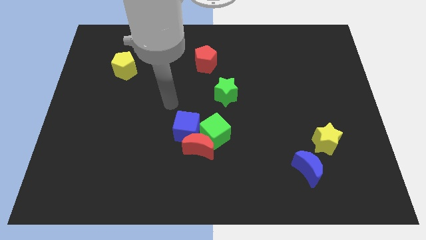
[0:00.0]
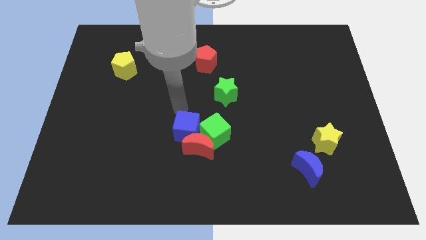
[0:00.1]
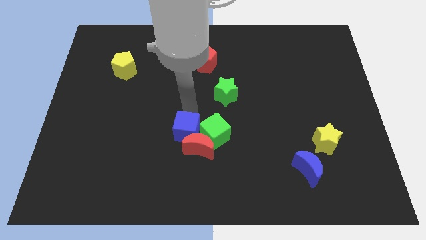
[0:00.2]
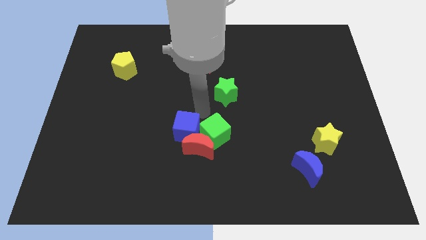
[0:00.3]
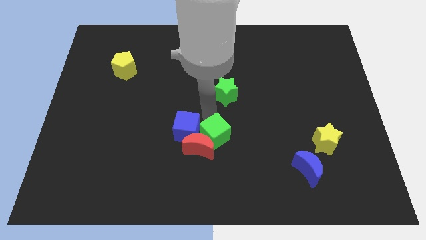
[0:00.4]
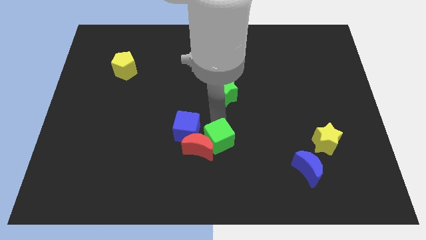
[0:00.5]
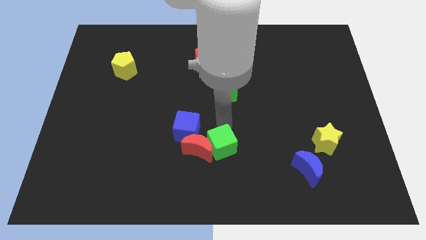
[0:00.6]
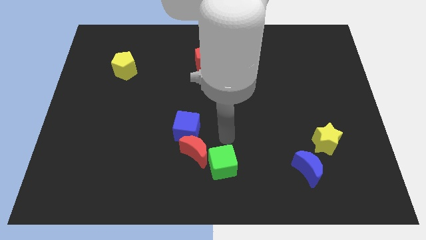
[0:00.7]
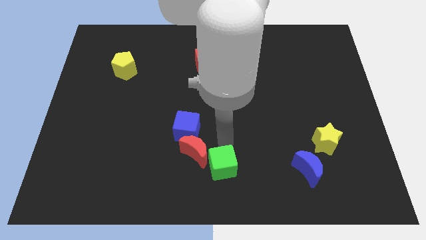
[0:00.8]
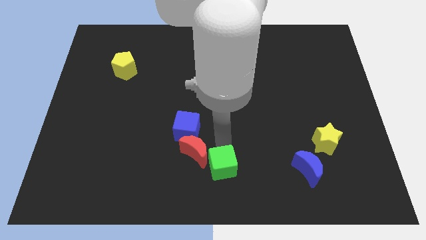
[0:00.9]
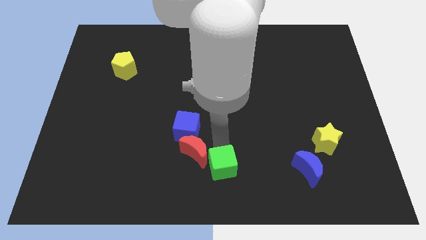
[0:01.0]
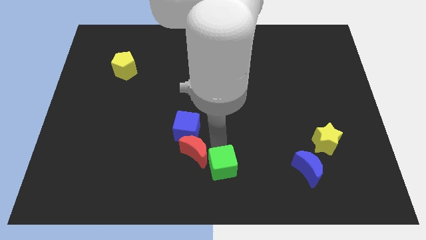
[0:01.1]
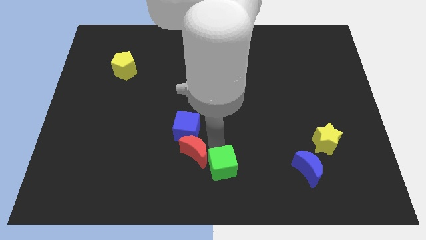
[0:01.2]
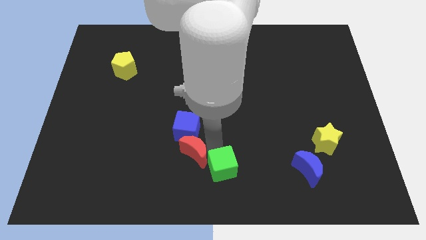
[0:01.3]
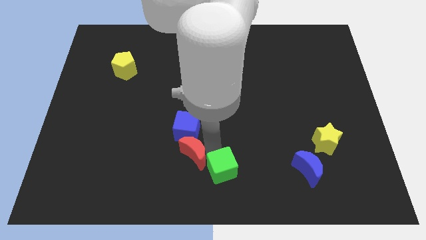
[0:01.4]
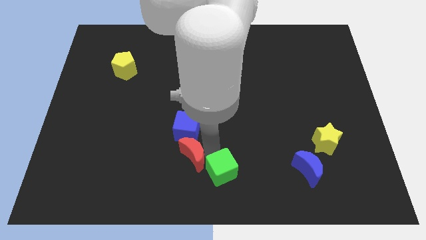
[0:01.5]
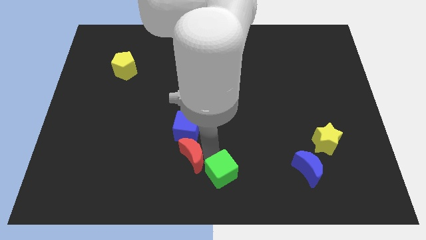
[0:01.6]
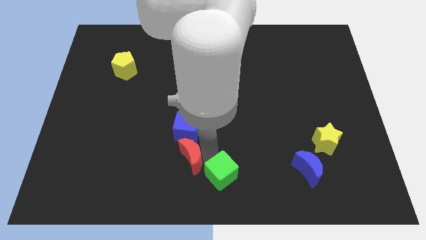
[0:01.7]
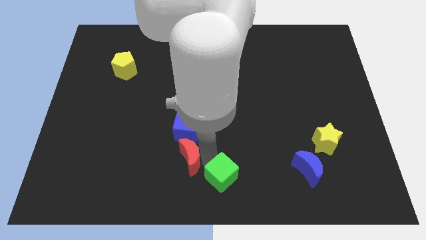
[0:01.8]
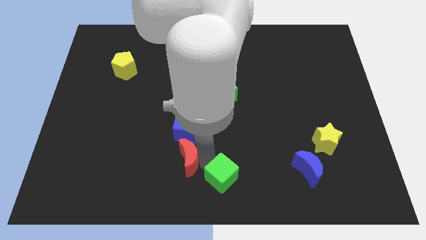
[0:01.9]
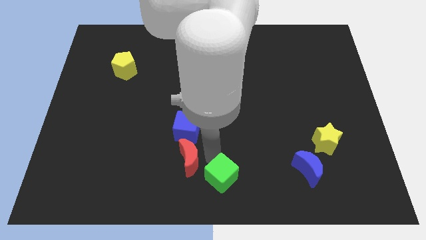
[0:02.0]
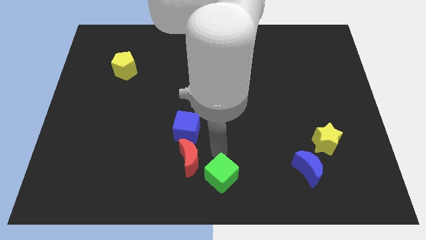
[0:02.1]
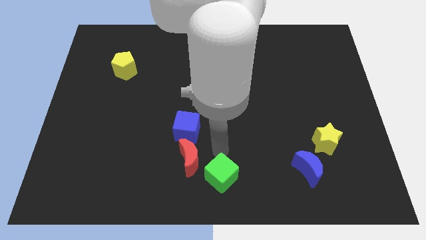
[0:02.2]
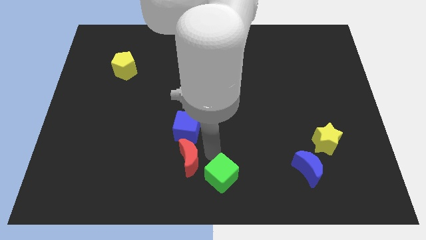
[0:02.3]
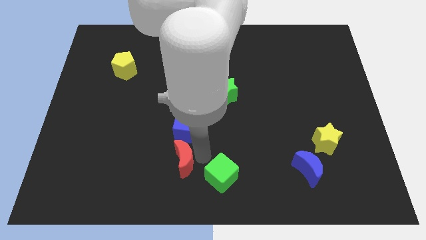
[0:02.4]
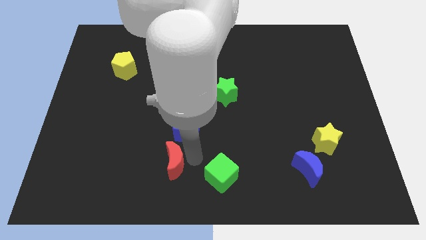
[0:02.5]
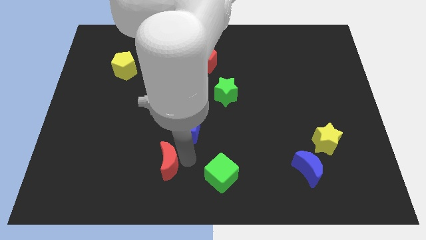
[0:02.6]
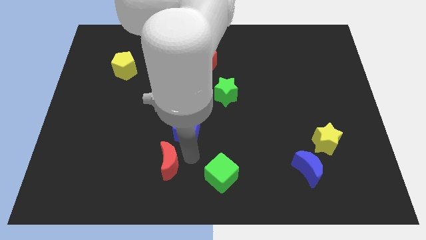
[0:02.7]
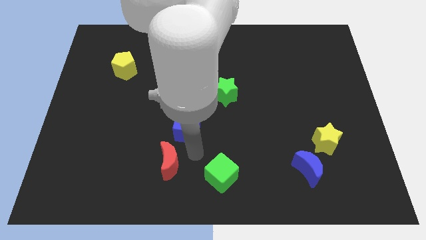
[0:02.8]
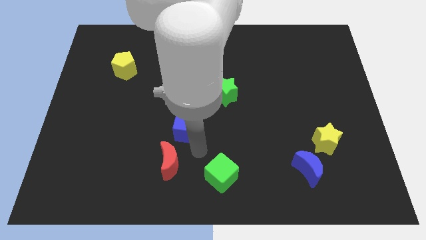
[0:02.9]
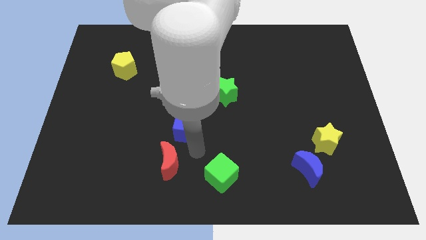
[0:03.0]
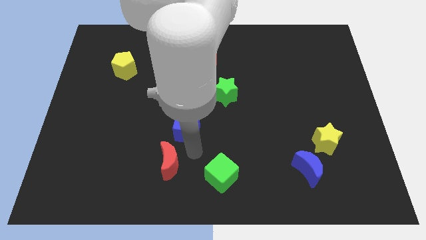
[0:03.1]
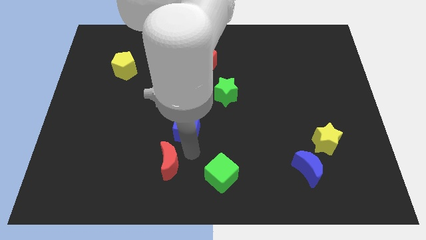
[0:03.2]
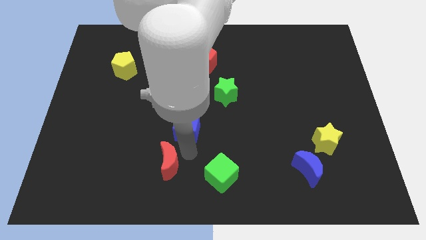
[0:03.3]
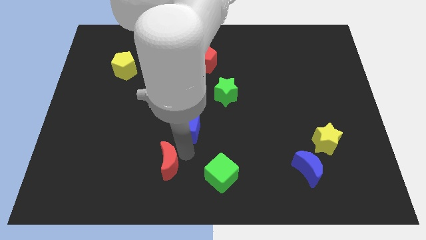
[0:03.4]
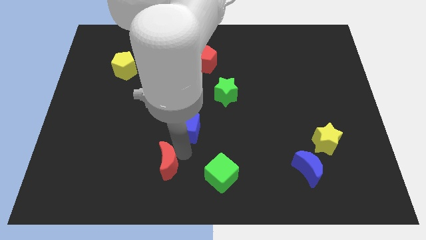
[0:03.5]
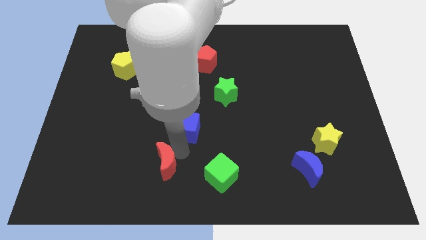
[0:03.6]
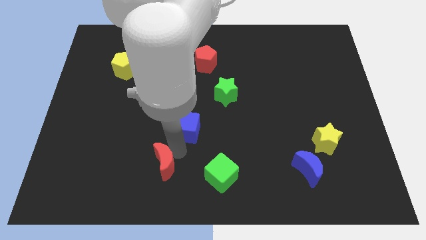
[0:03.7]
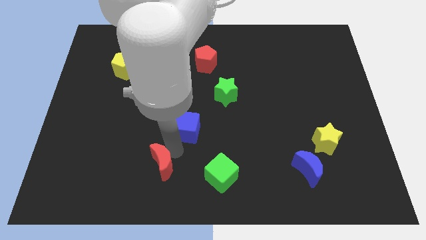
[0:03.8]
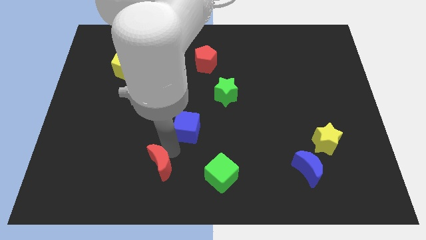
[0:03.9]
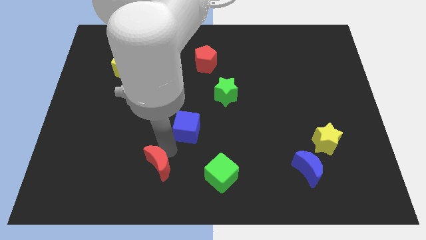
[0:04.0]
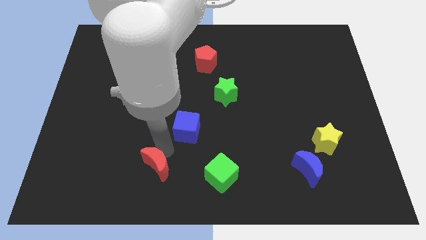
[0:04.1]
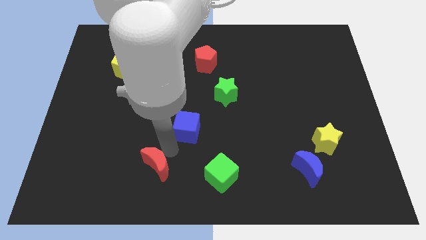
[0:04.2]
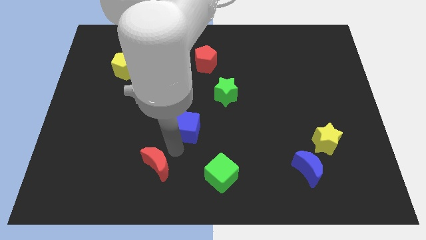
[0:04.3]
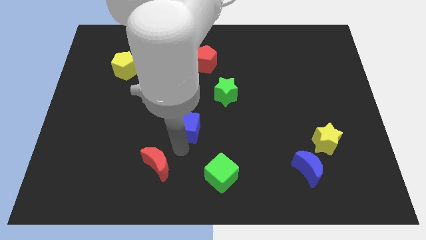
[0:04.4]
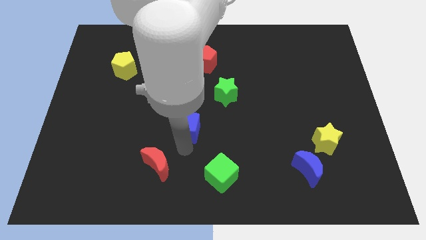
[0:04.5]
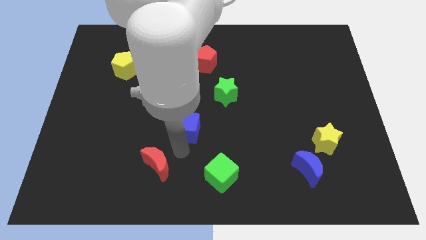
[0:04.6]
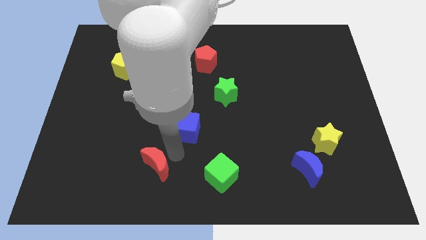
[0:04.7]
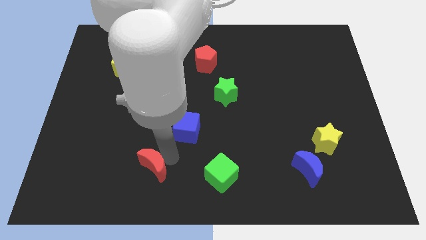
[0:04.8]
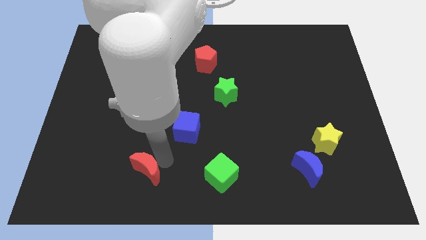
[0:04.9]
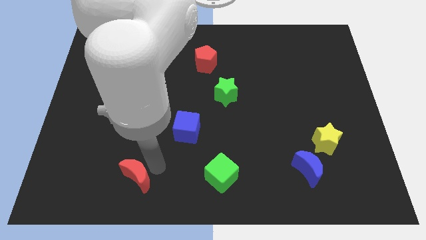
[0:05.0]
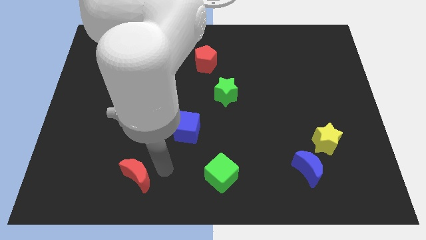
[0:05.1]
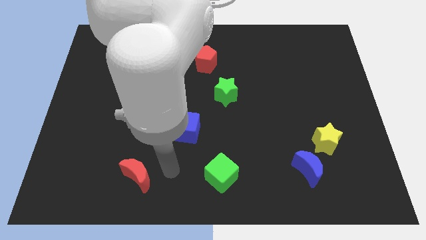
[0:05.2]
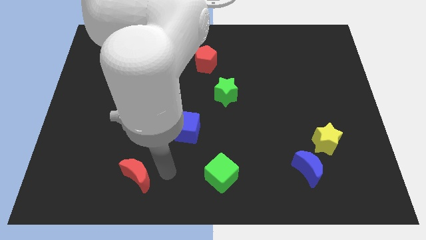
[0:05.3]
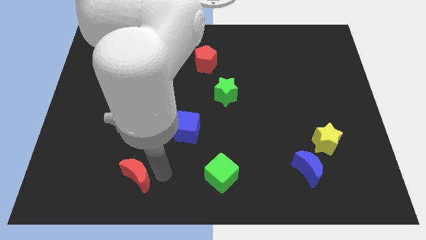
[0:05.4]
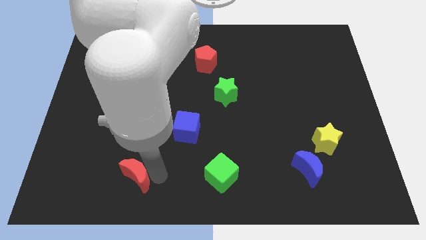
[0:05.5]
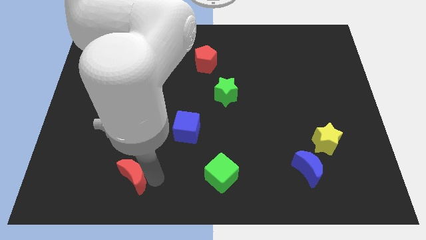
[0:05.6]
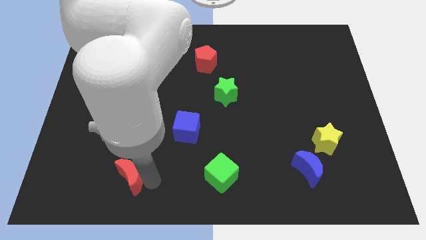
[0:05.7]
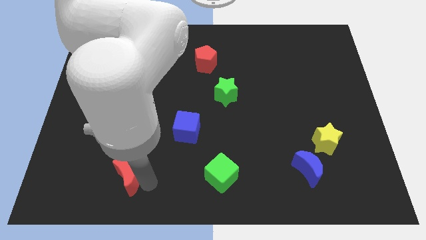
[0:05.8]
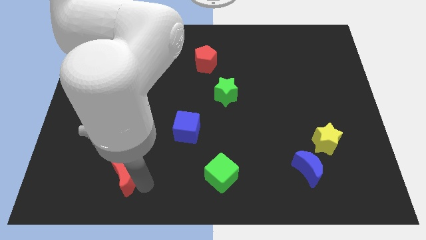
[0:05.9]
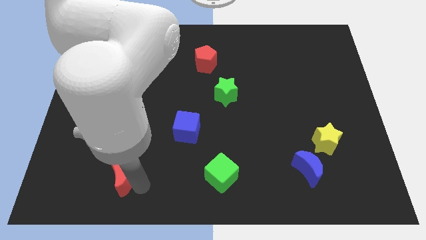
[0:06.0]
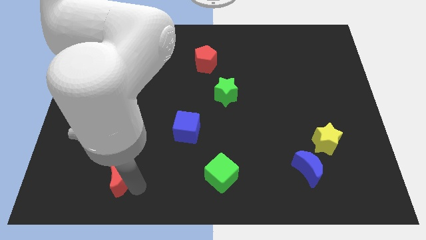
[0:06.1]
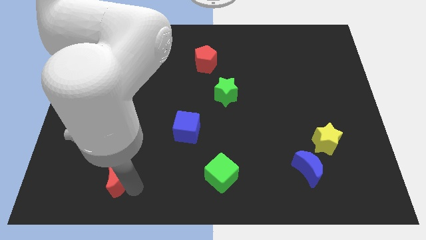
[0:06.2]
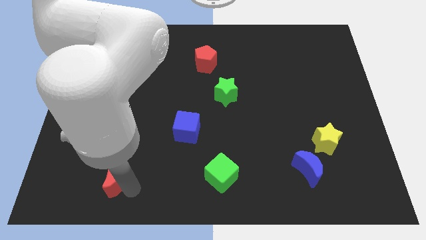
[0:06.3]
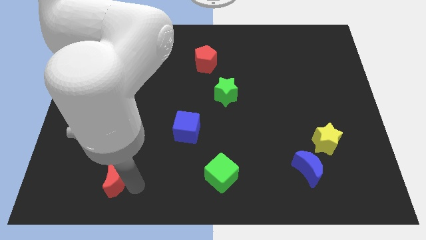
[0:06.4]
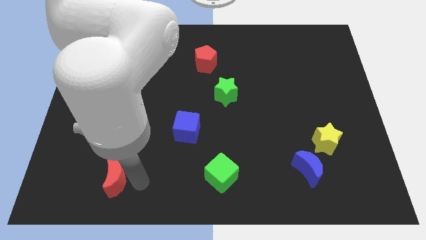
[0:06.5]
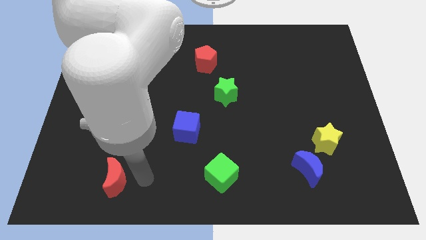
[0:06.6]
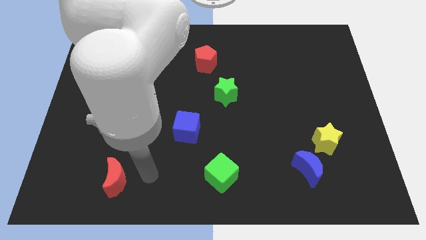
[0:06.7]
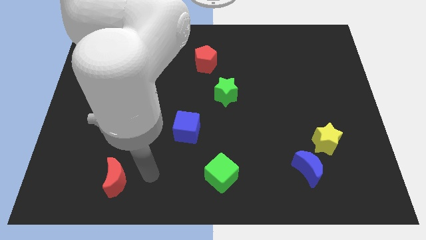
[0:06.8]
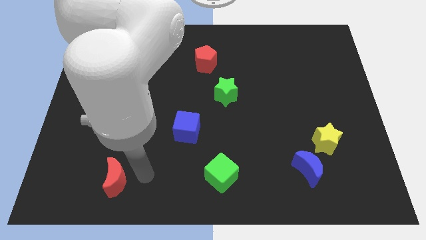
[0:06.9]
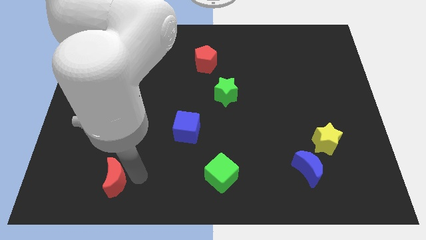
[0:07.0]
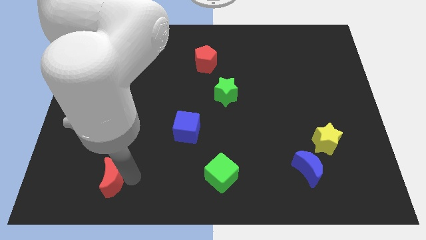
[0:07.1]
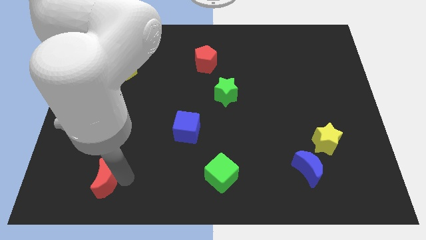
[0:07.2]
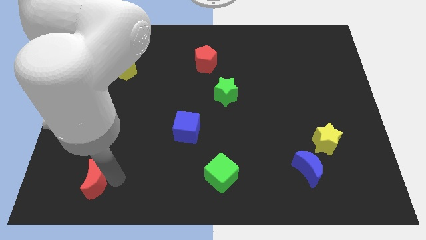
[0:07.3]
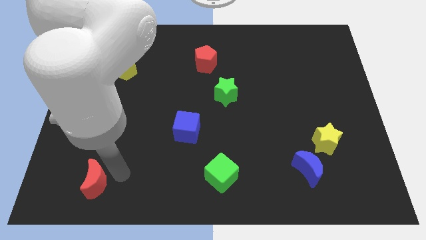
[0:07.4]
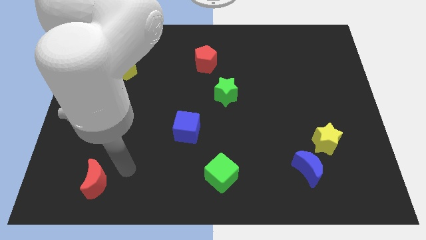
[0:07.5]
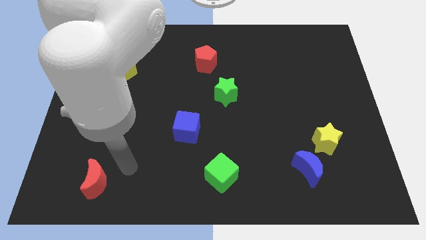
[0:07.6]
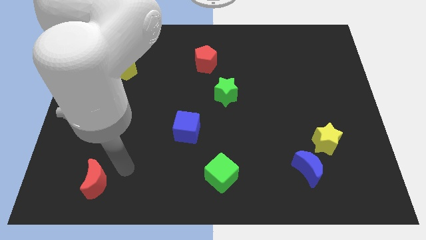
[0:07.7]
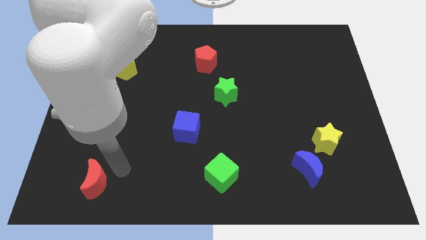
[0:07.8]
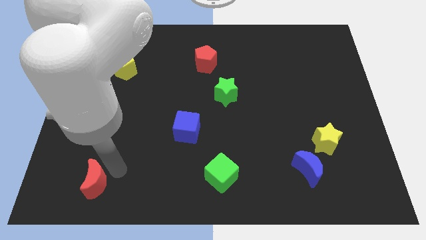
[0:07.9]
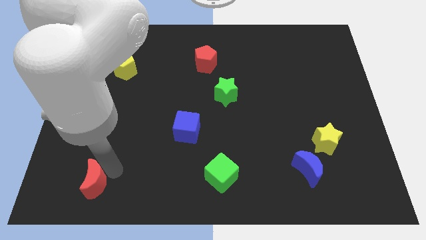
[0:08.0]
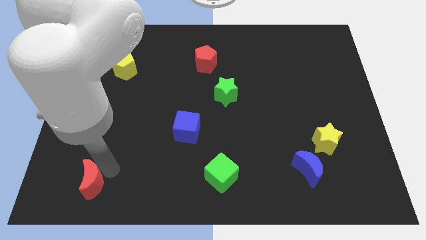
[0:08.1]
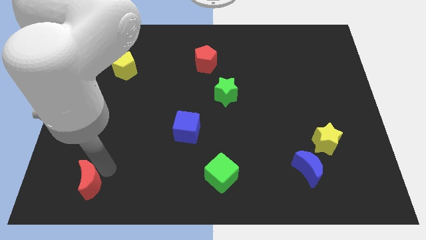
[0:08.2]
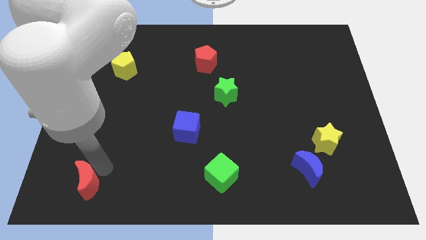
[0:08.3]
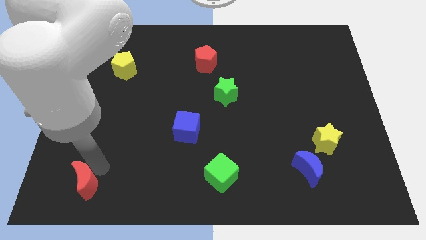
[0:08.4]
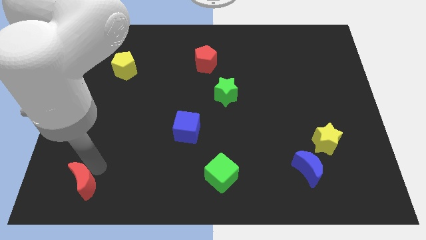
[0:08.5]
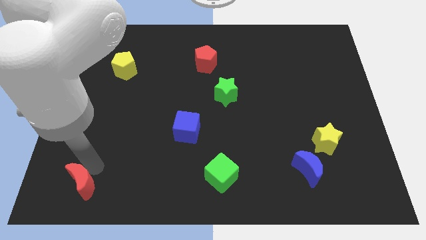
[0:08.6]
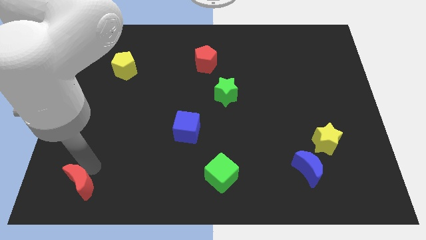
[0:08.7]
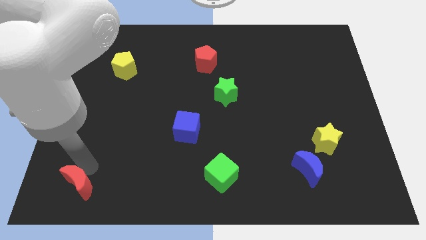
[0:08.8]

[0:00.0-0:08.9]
move the red moon to the bottom left of the board
